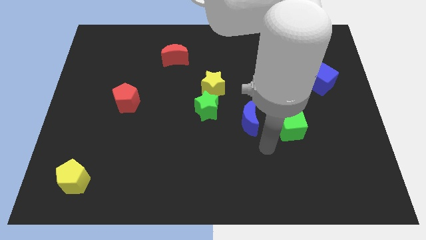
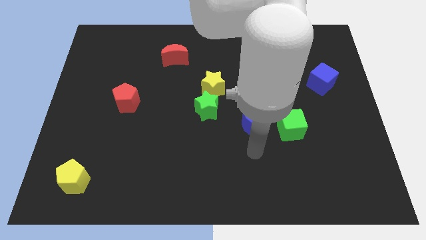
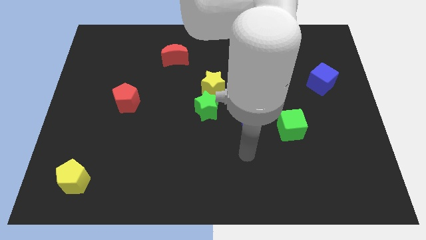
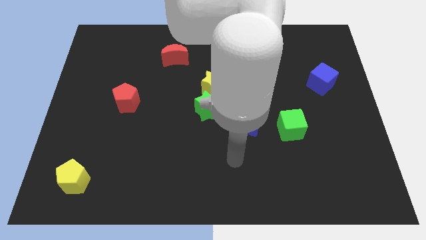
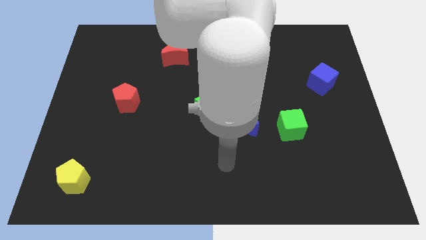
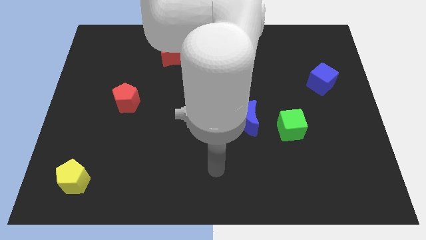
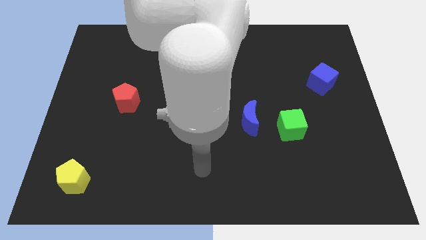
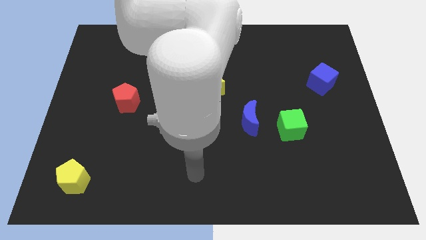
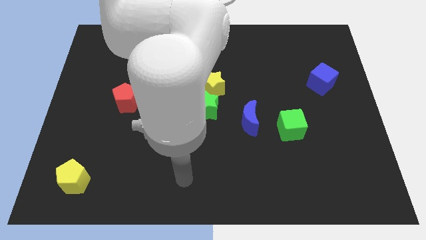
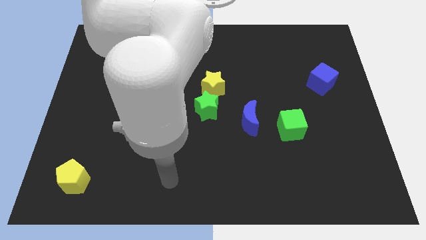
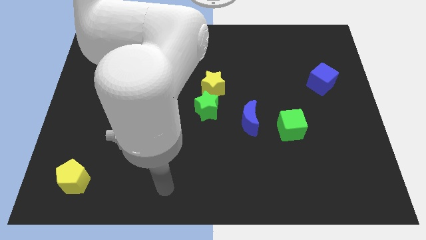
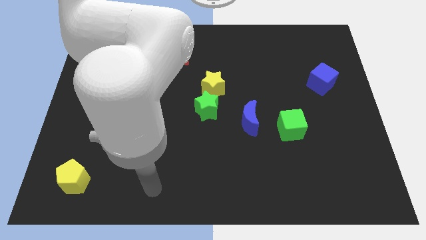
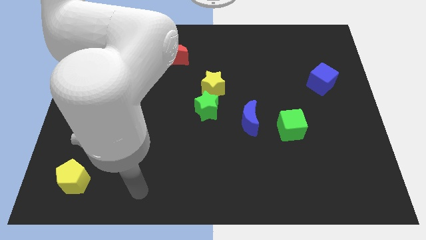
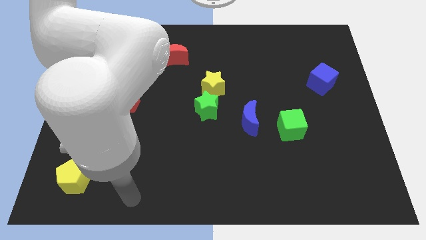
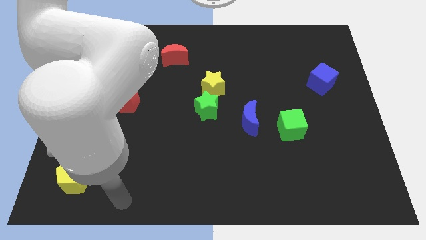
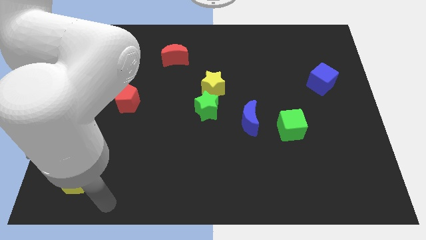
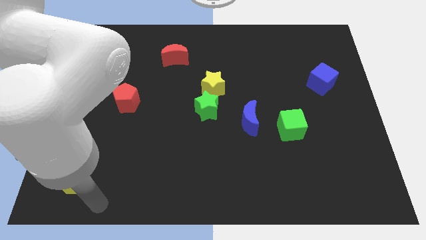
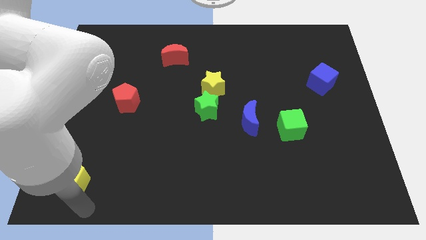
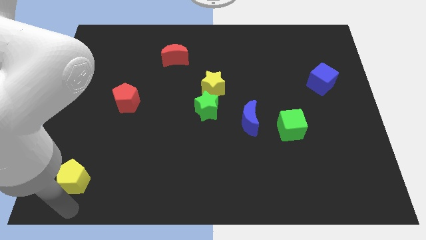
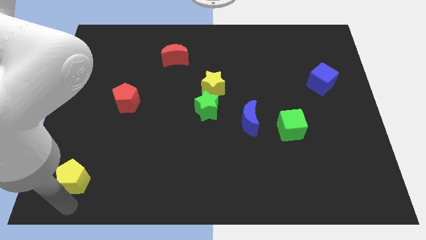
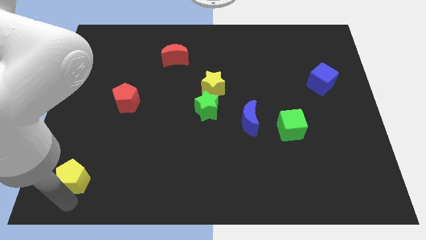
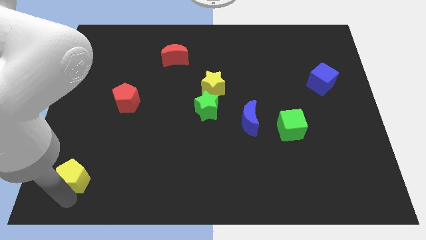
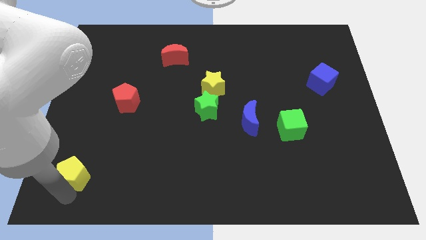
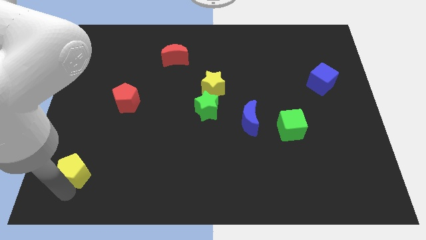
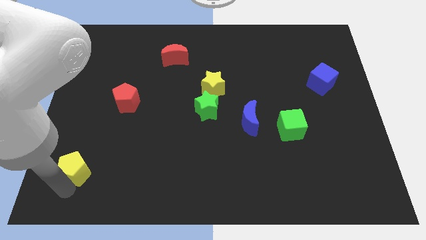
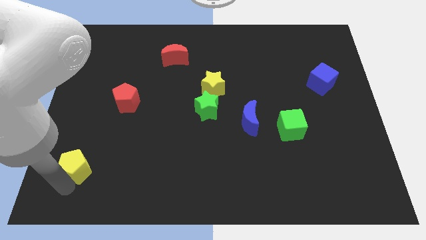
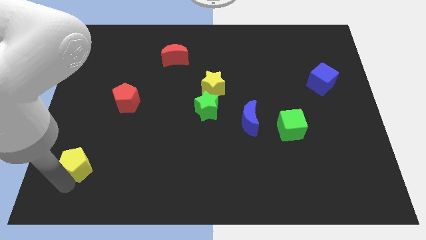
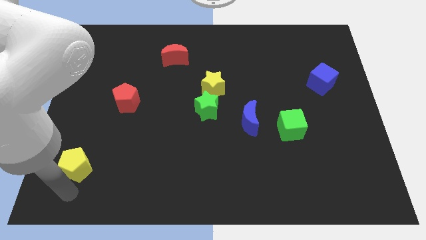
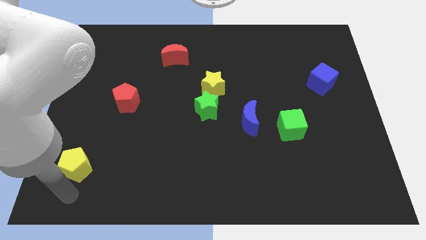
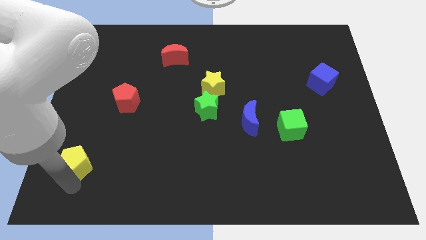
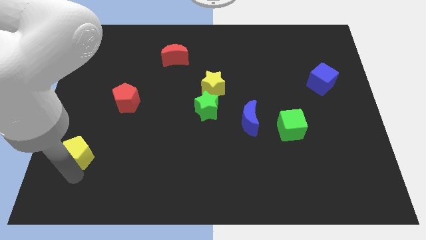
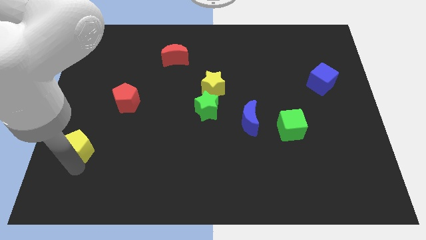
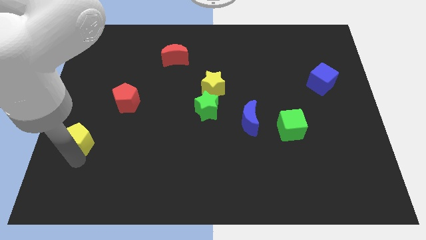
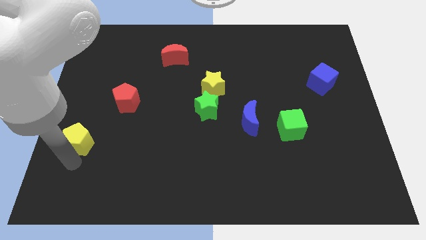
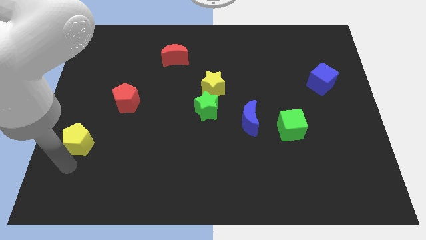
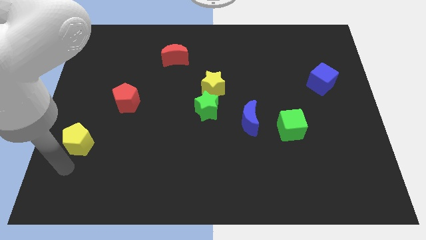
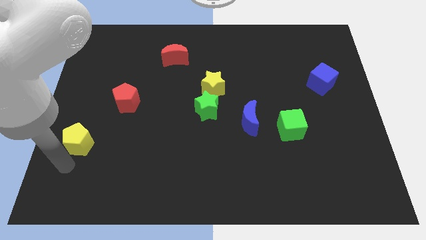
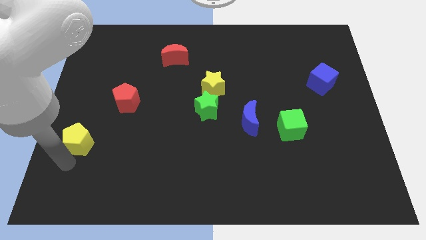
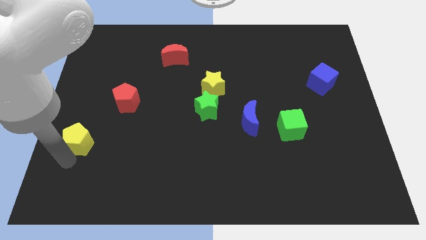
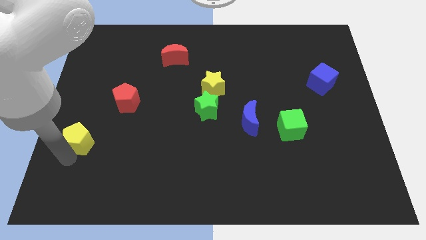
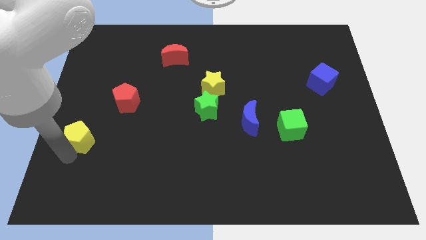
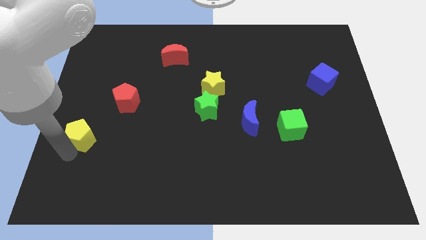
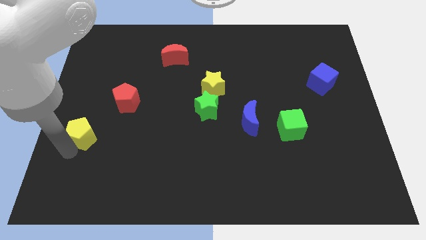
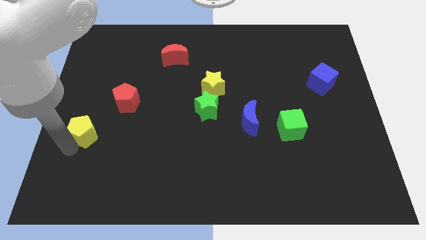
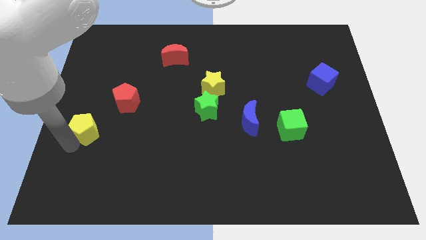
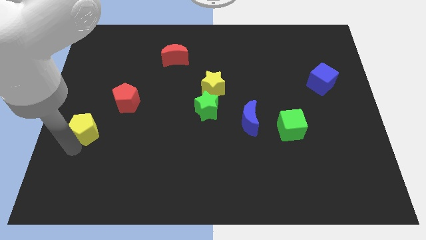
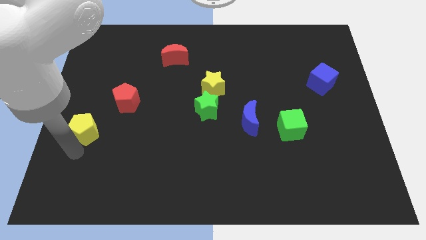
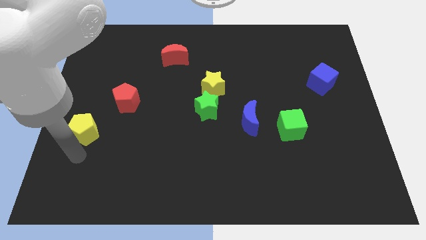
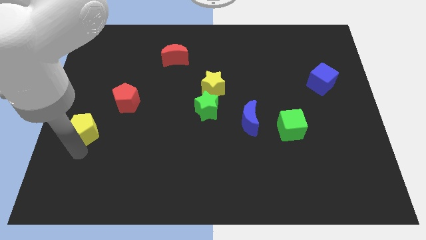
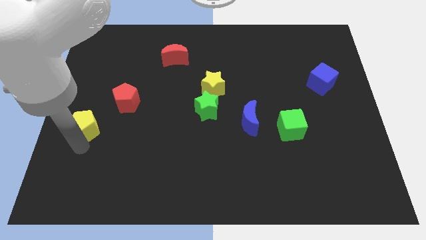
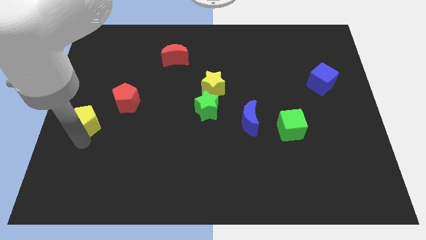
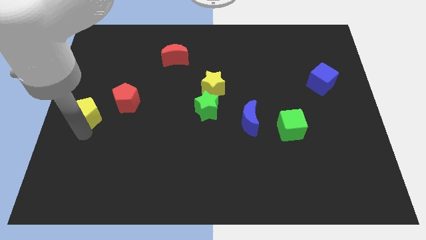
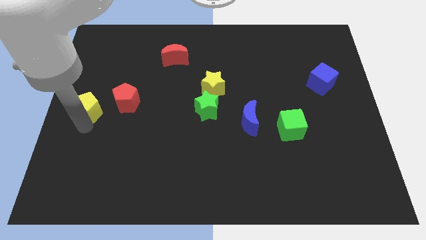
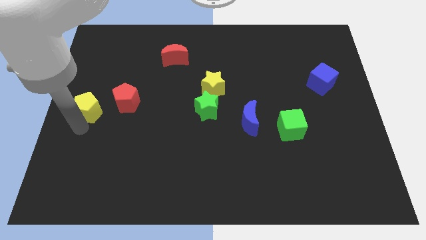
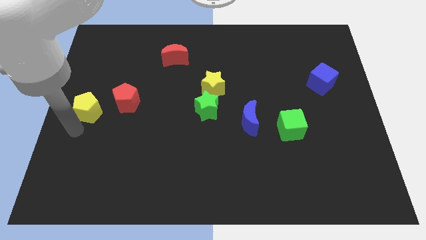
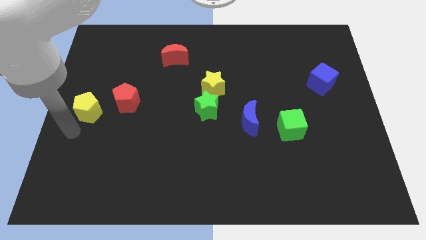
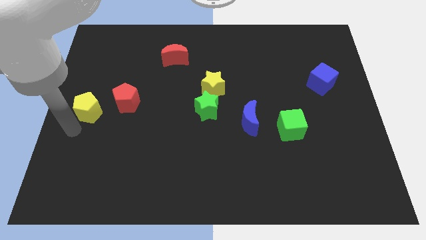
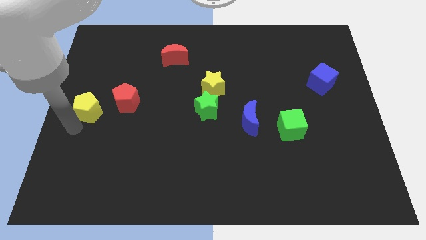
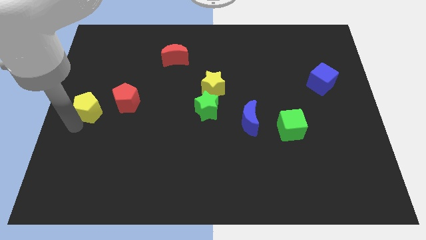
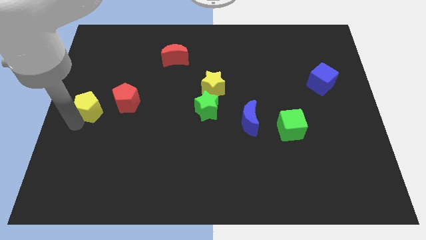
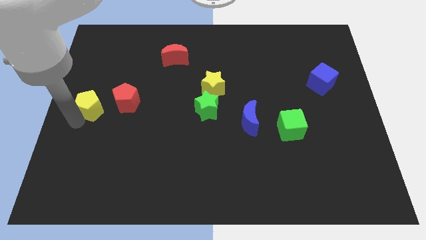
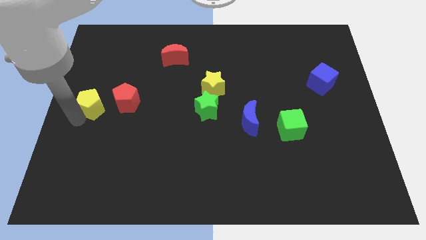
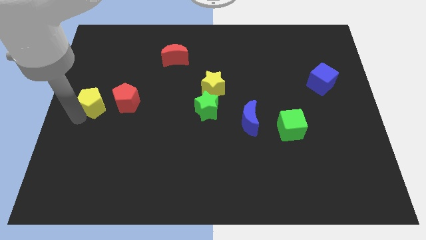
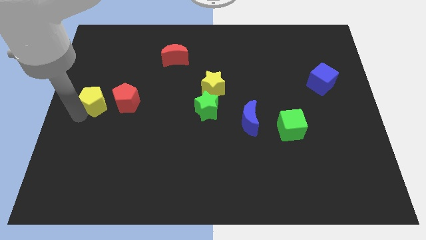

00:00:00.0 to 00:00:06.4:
move the yellow pentagon up

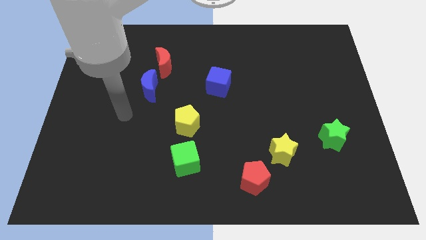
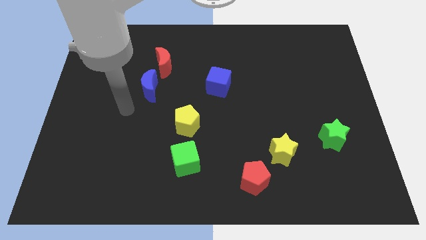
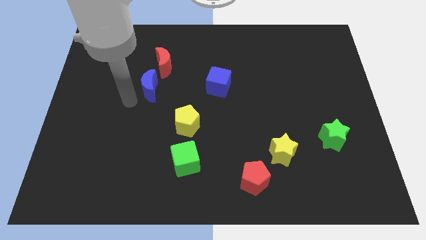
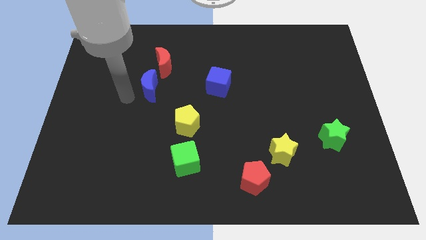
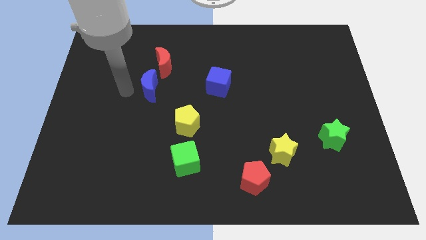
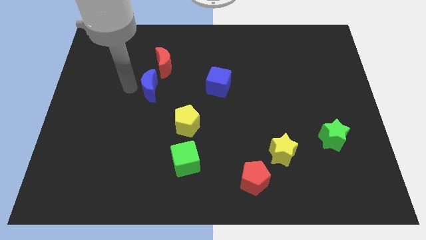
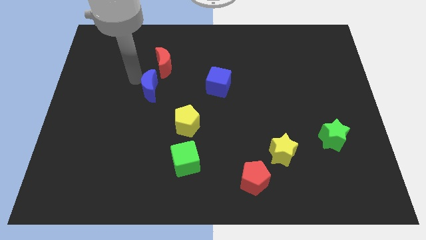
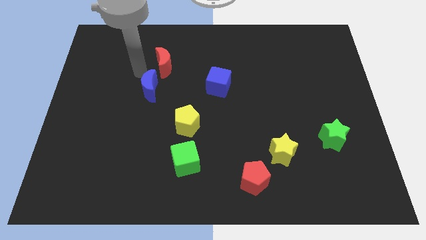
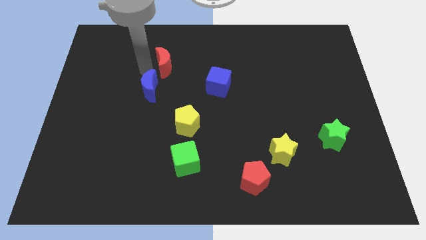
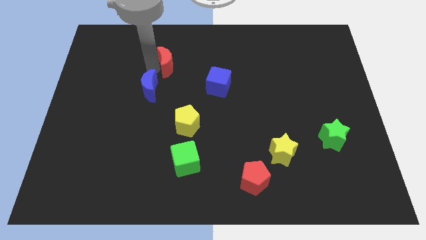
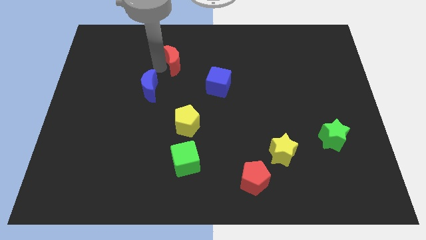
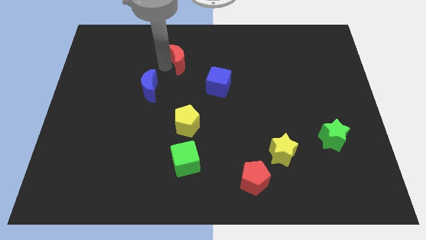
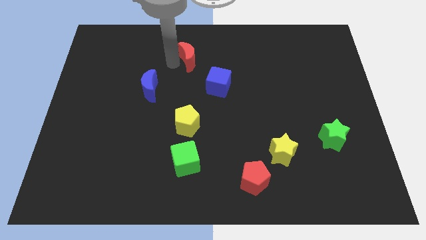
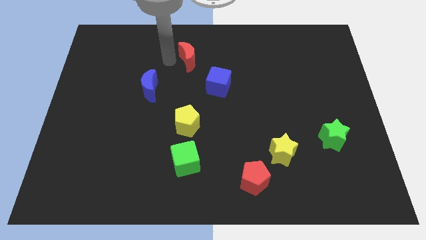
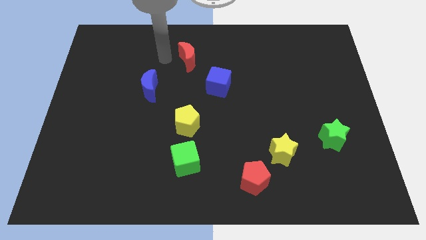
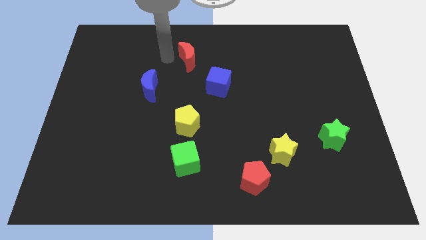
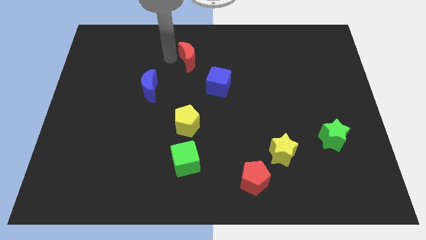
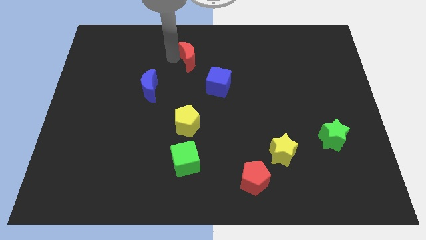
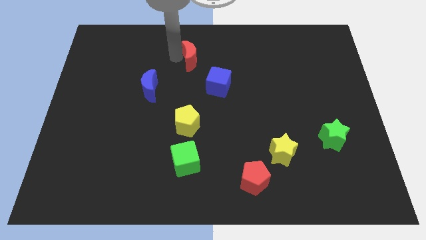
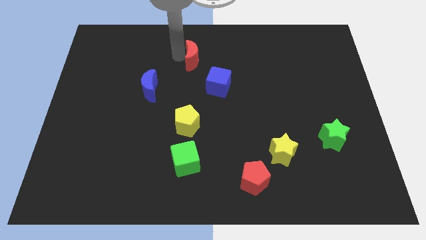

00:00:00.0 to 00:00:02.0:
push the red moon a bit to the right
